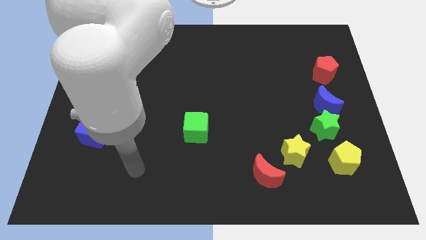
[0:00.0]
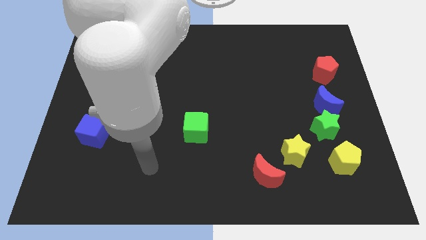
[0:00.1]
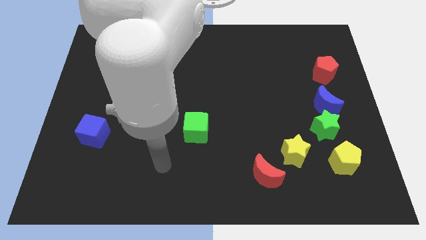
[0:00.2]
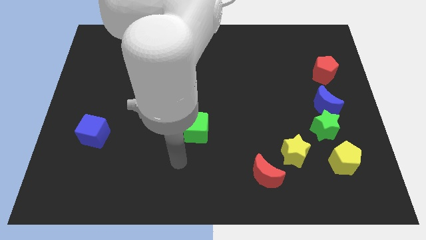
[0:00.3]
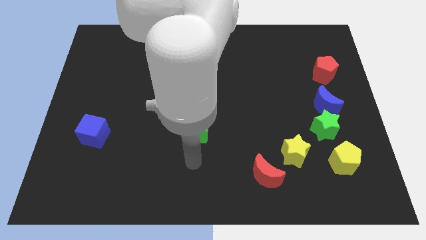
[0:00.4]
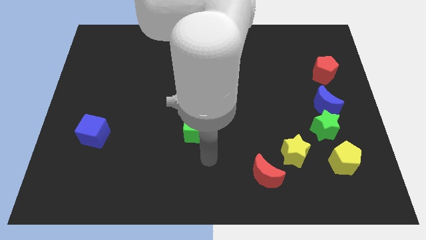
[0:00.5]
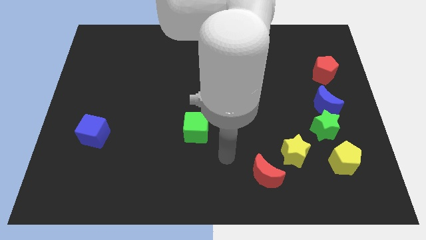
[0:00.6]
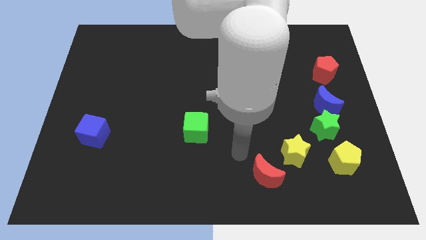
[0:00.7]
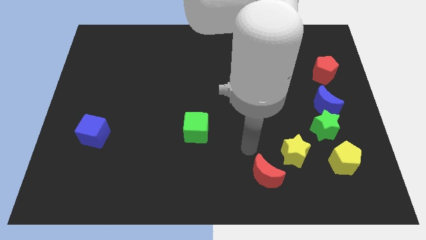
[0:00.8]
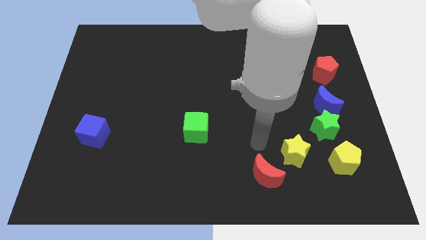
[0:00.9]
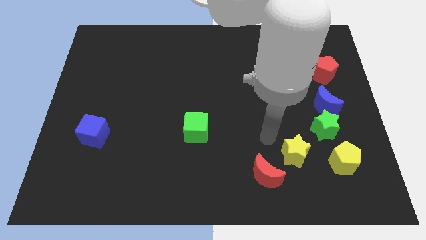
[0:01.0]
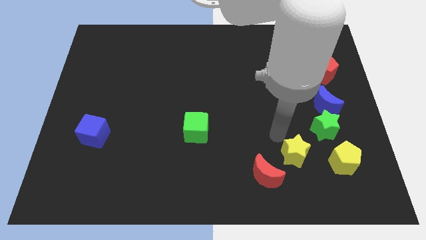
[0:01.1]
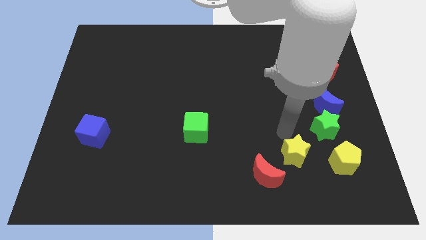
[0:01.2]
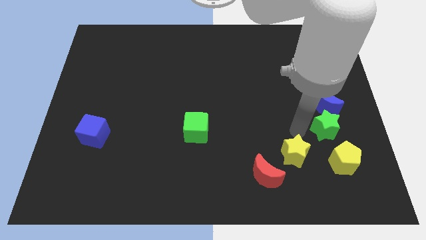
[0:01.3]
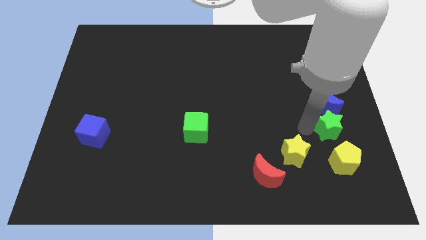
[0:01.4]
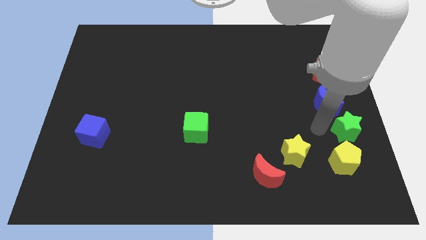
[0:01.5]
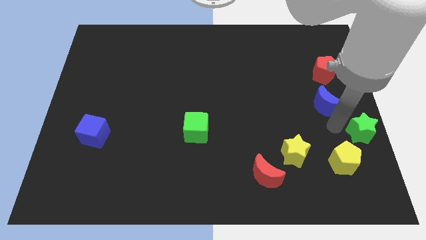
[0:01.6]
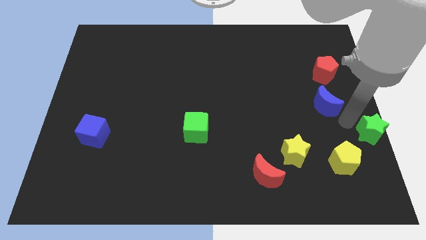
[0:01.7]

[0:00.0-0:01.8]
separate the blue moon from the green star

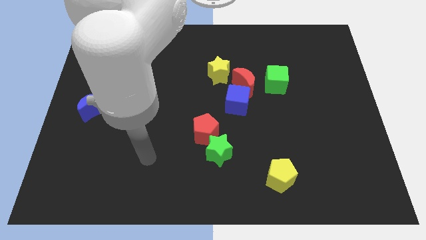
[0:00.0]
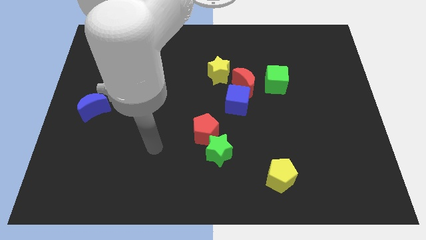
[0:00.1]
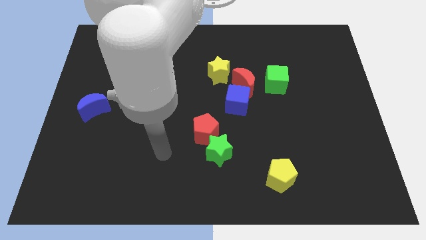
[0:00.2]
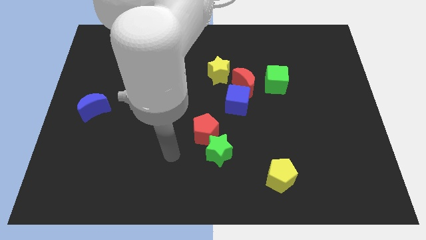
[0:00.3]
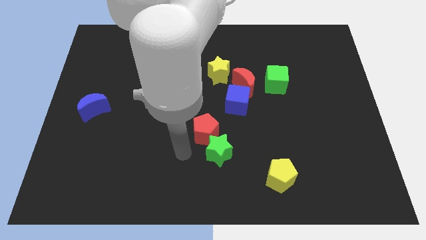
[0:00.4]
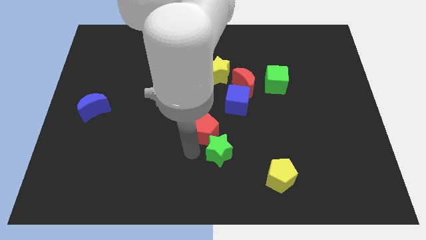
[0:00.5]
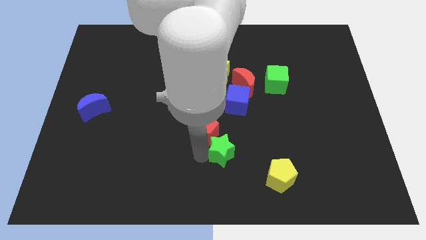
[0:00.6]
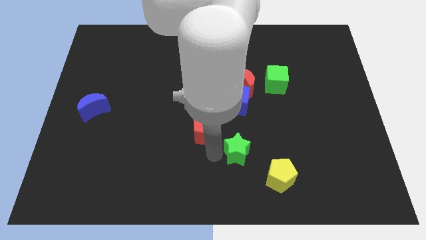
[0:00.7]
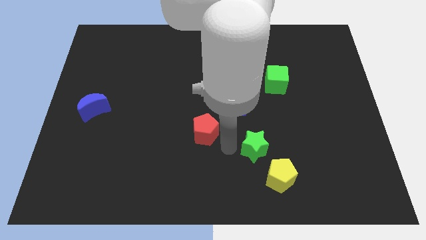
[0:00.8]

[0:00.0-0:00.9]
separate the red pentagon from the green star

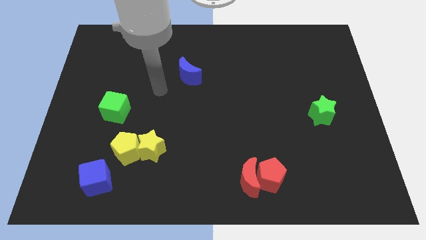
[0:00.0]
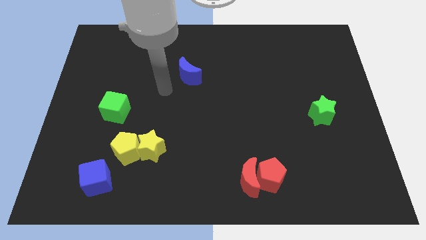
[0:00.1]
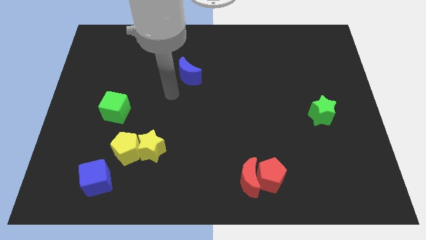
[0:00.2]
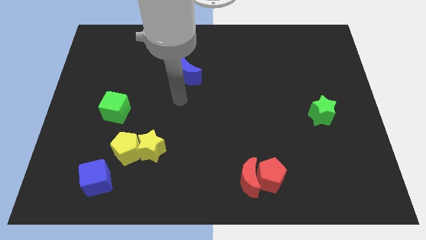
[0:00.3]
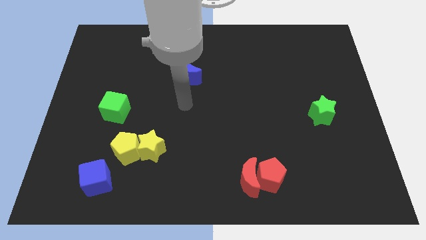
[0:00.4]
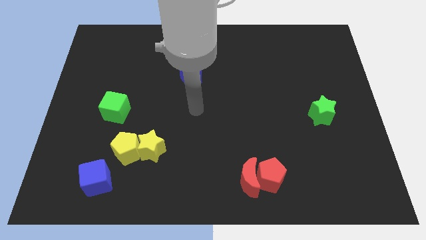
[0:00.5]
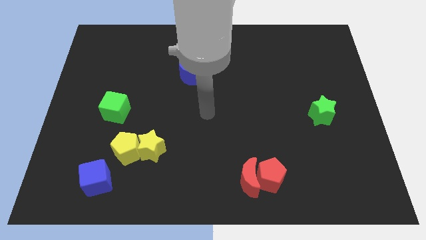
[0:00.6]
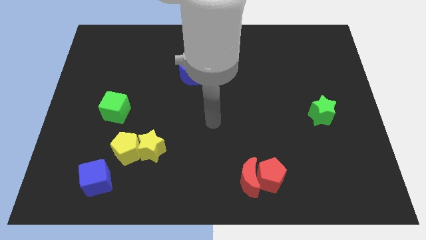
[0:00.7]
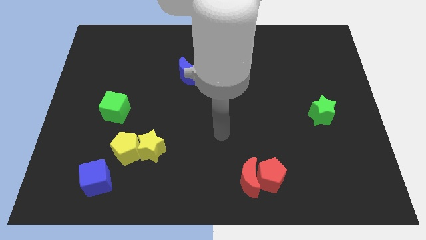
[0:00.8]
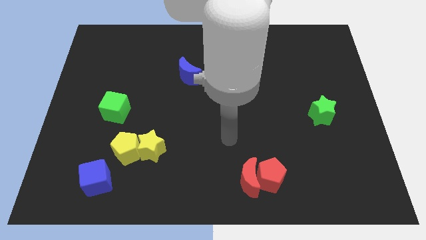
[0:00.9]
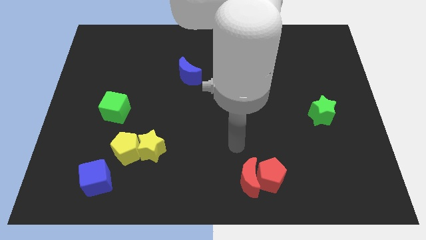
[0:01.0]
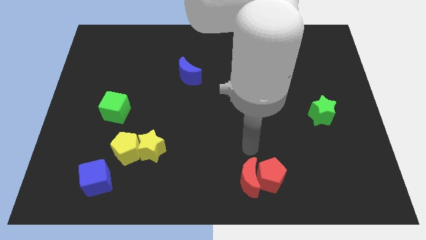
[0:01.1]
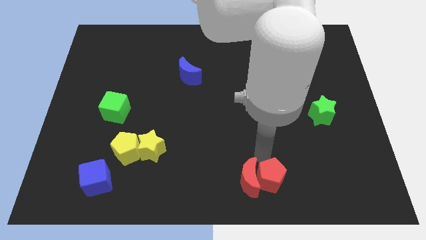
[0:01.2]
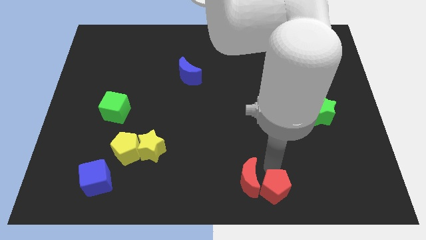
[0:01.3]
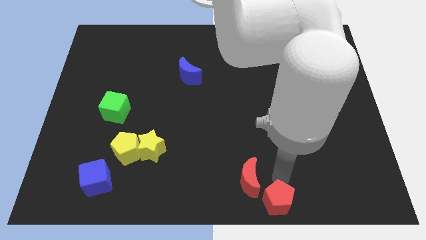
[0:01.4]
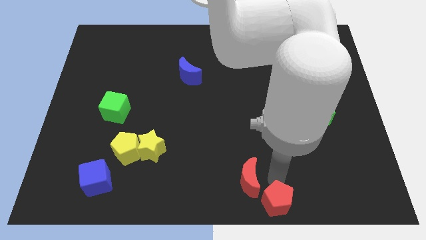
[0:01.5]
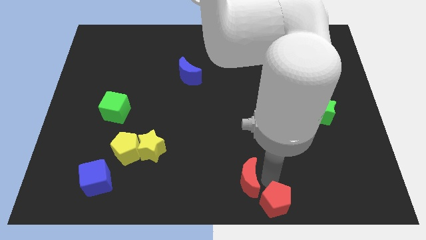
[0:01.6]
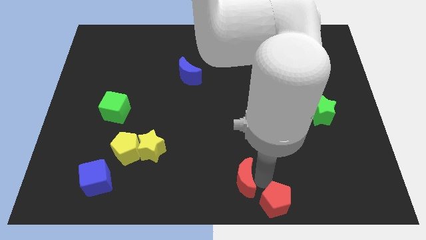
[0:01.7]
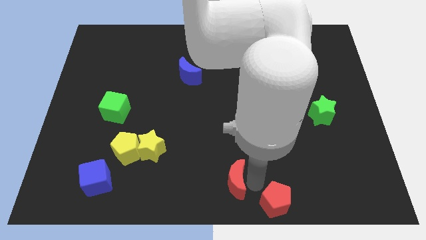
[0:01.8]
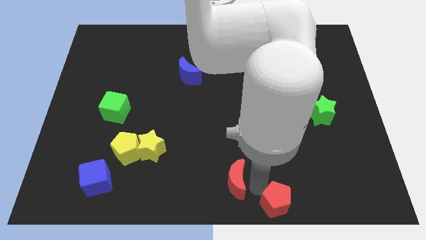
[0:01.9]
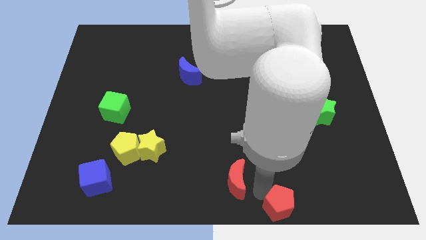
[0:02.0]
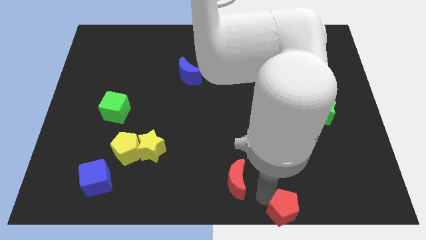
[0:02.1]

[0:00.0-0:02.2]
move the red moon away from the red pentagon

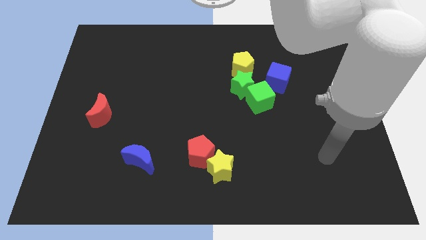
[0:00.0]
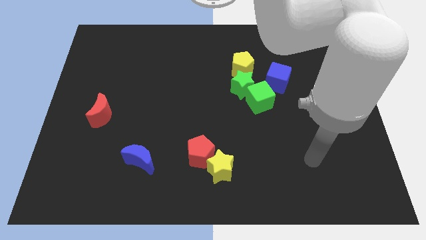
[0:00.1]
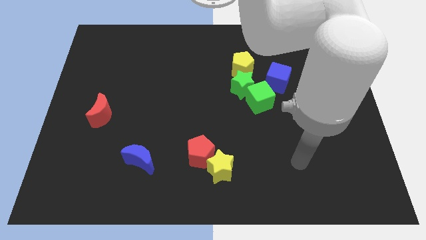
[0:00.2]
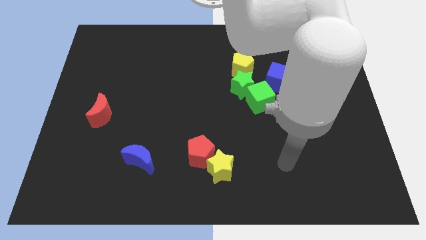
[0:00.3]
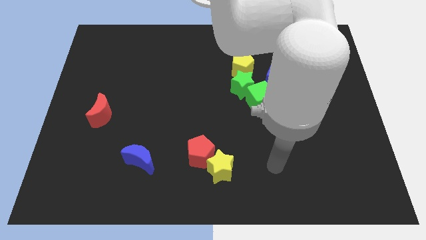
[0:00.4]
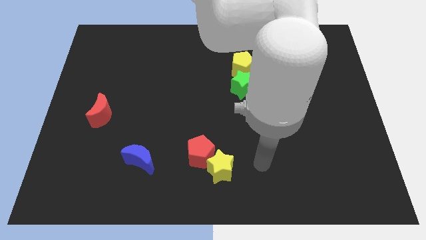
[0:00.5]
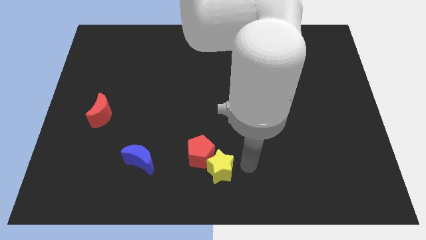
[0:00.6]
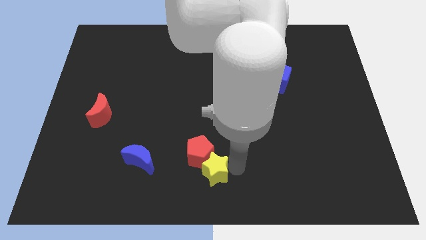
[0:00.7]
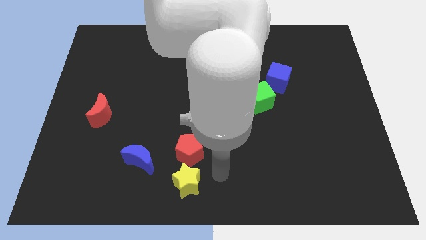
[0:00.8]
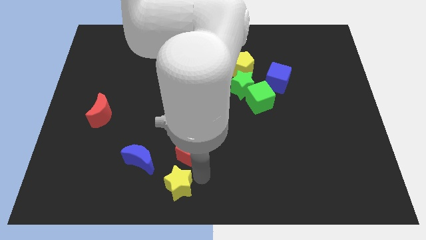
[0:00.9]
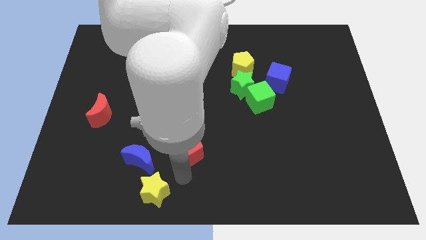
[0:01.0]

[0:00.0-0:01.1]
separate the red pentagon from the yellow star

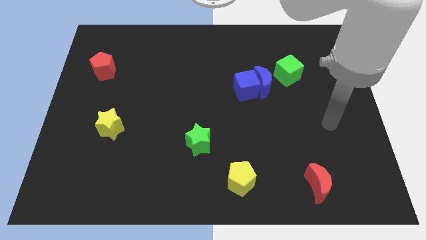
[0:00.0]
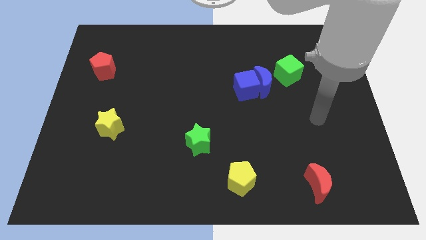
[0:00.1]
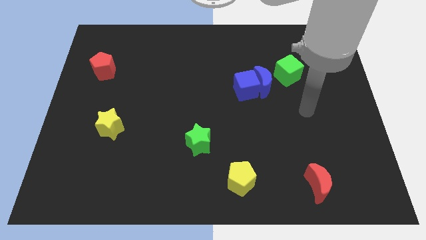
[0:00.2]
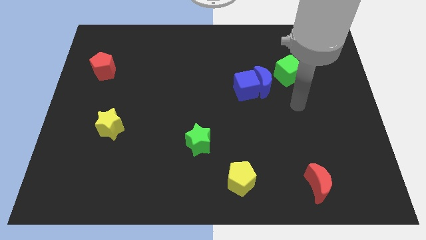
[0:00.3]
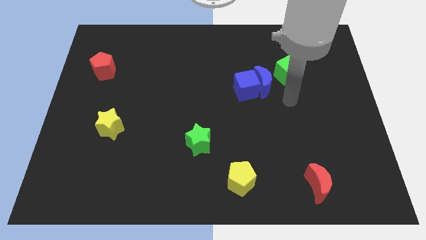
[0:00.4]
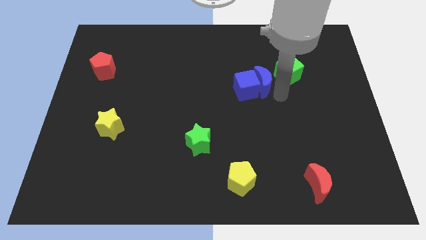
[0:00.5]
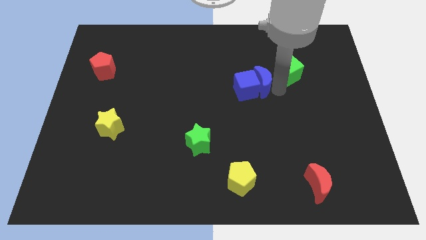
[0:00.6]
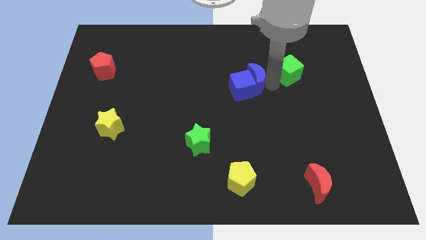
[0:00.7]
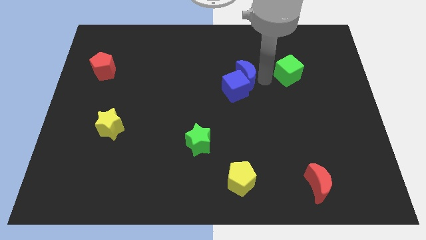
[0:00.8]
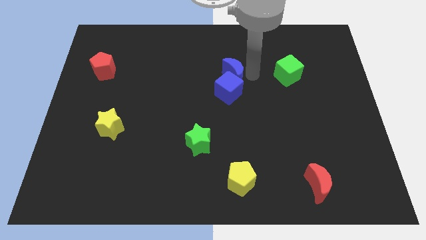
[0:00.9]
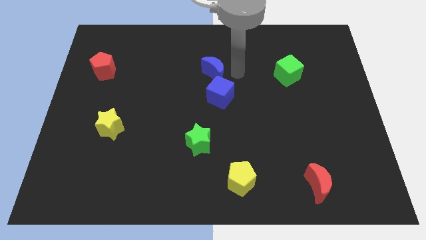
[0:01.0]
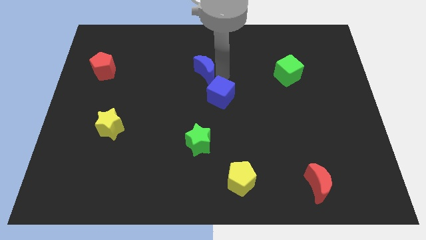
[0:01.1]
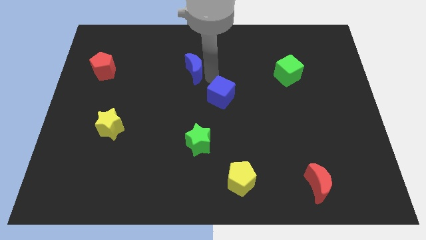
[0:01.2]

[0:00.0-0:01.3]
pull the blue cube apart from the blue moon

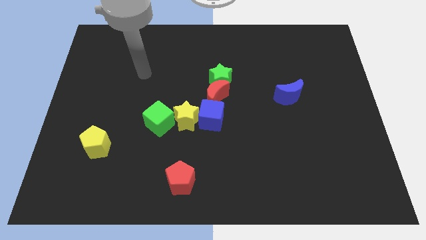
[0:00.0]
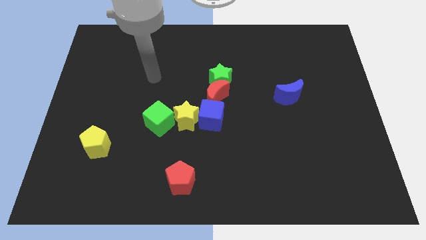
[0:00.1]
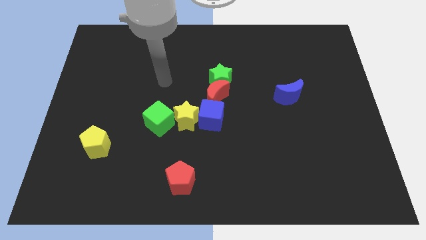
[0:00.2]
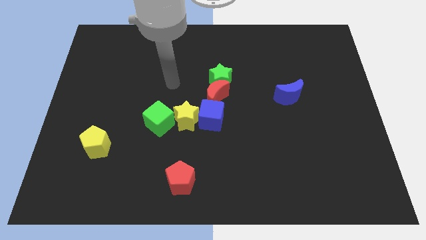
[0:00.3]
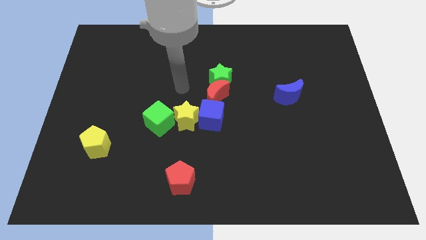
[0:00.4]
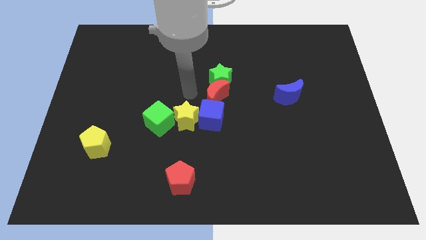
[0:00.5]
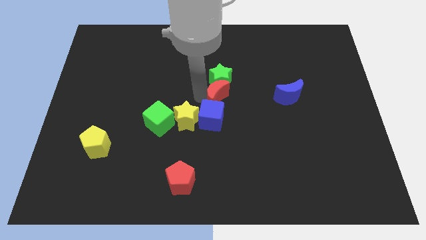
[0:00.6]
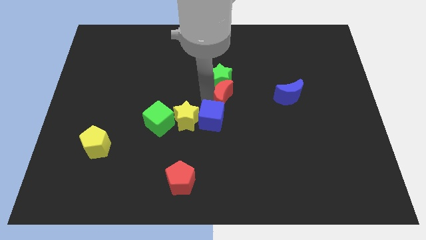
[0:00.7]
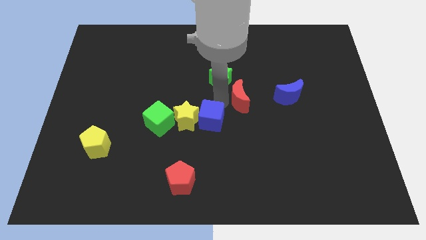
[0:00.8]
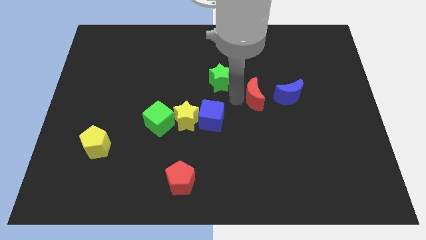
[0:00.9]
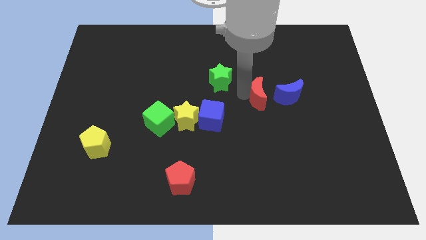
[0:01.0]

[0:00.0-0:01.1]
pull the green star apart from the red moon

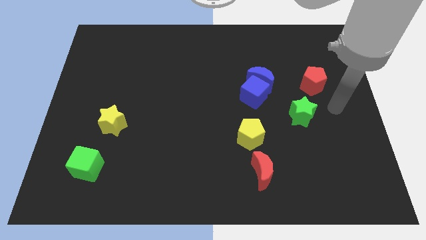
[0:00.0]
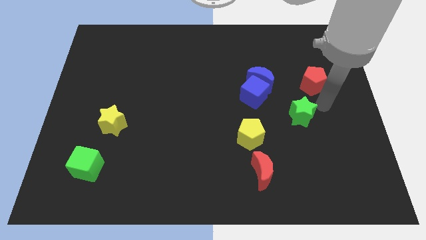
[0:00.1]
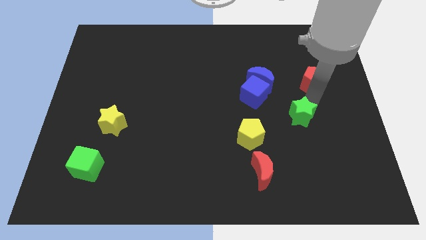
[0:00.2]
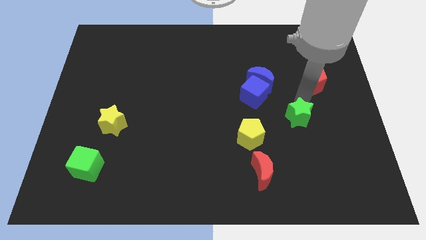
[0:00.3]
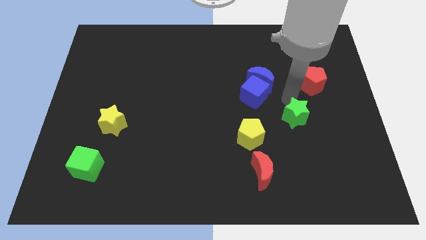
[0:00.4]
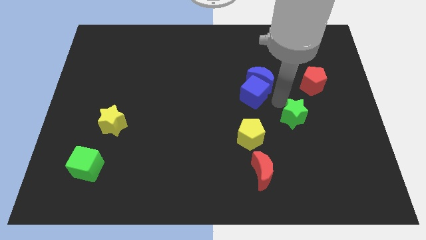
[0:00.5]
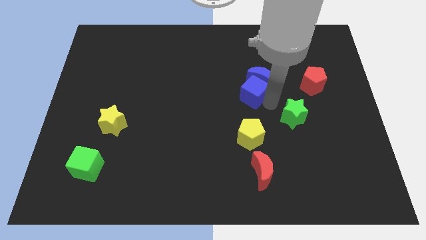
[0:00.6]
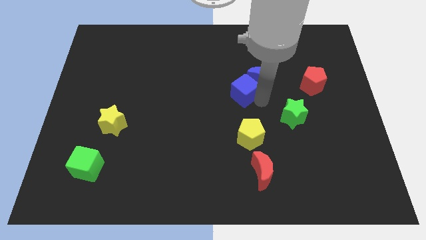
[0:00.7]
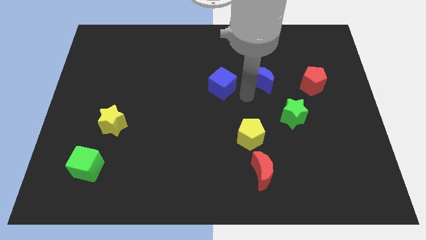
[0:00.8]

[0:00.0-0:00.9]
move the blue moon away from the blue cube

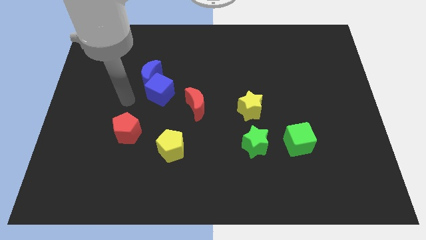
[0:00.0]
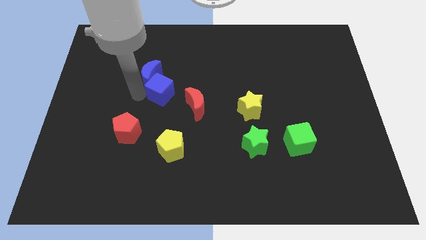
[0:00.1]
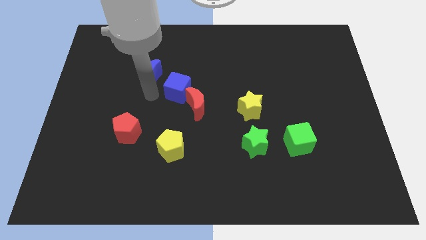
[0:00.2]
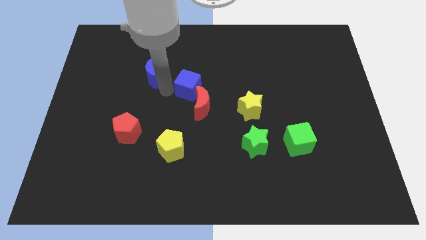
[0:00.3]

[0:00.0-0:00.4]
separate the blue moon from the blue cube
